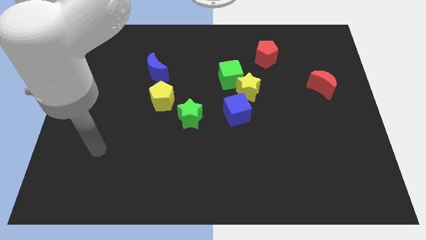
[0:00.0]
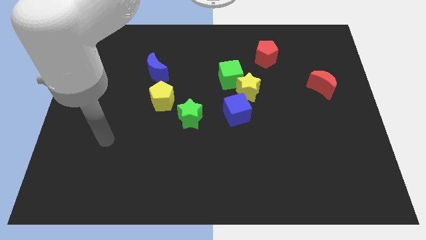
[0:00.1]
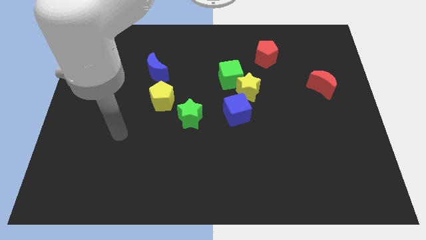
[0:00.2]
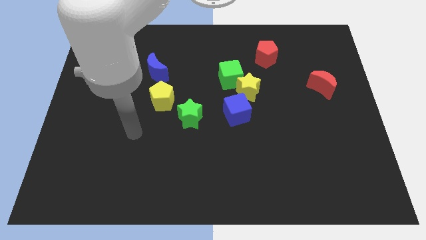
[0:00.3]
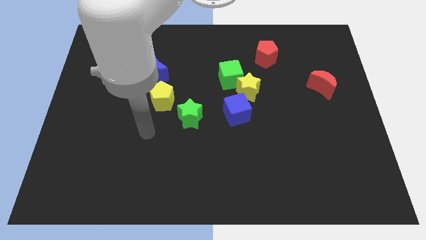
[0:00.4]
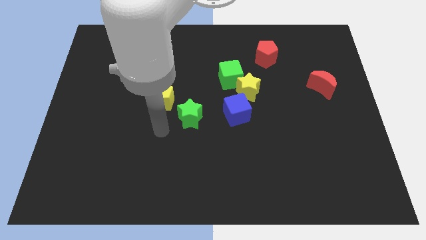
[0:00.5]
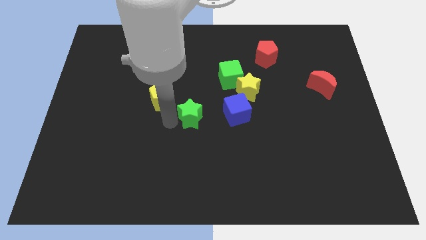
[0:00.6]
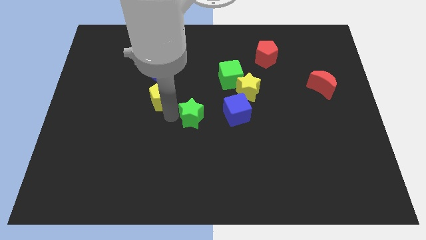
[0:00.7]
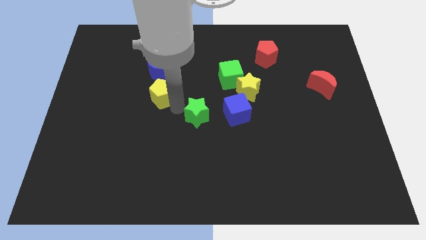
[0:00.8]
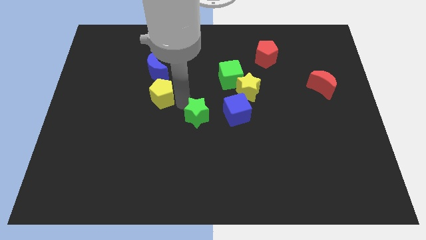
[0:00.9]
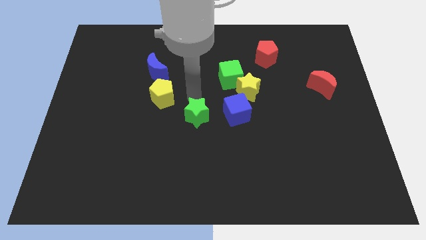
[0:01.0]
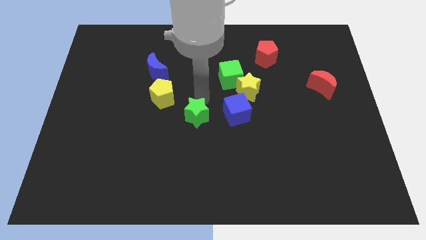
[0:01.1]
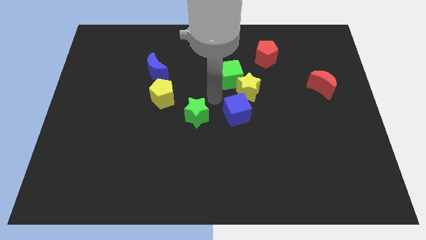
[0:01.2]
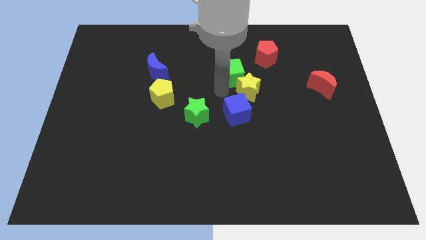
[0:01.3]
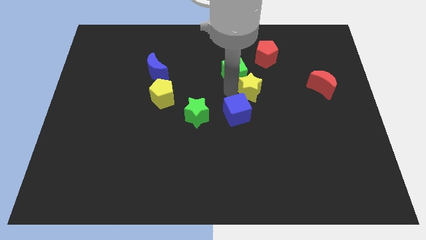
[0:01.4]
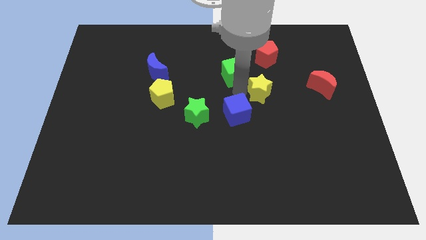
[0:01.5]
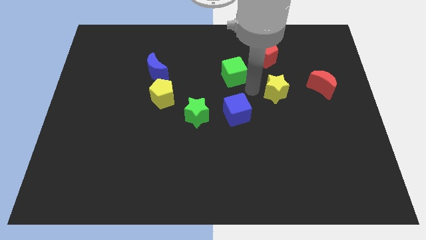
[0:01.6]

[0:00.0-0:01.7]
move the green cube away from the yellow star

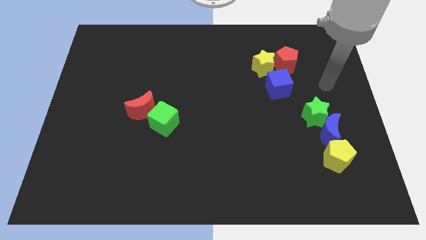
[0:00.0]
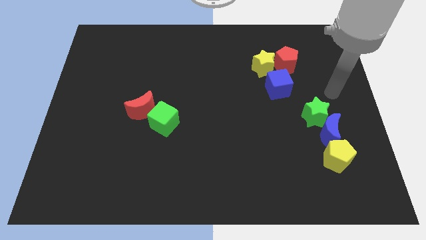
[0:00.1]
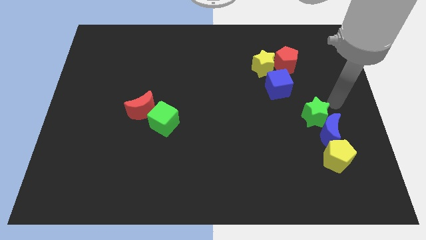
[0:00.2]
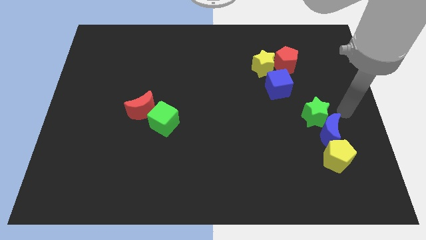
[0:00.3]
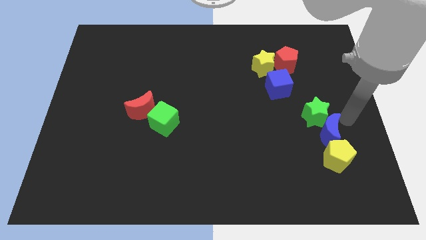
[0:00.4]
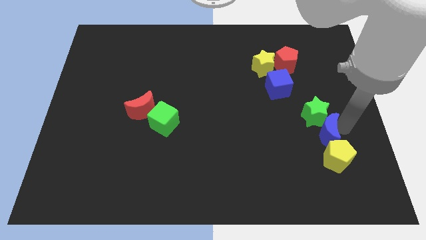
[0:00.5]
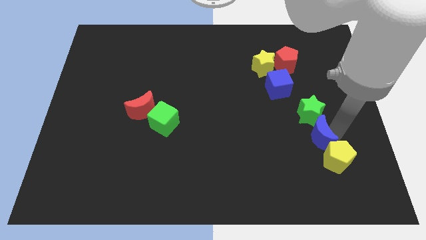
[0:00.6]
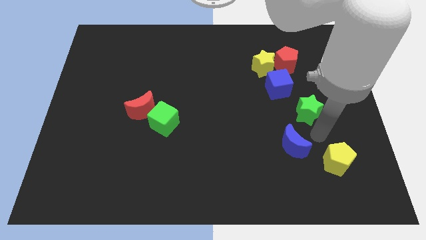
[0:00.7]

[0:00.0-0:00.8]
move the green star away from the blue moon

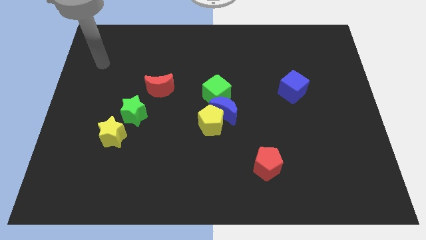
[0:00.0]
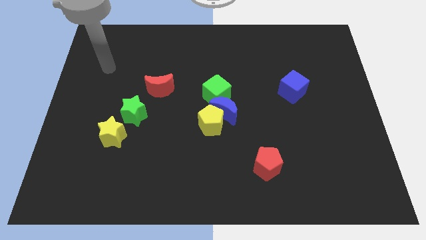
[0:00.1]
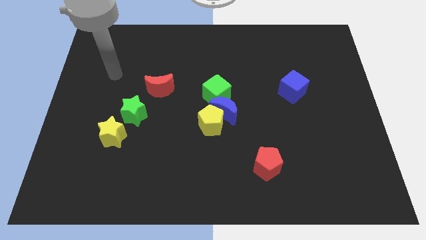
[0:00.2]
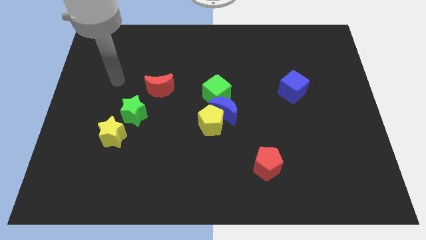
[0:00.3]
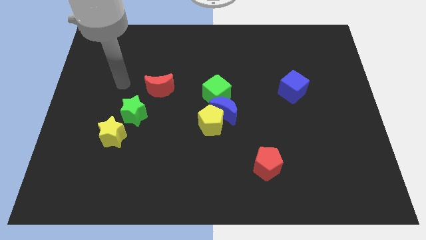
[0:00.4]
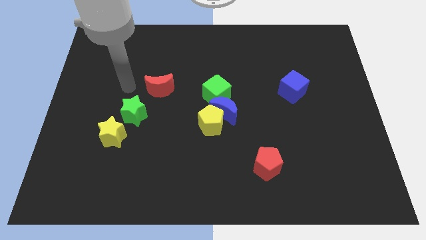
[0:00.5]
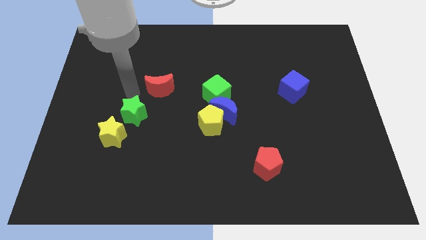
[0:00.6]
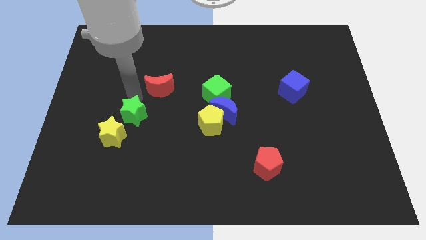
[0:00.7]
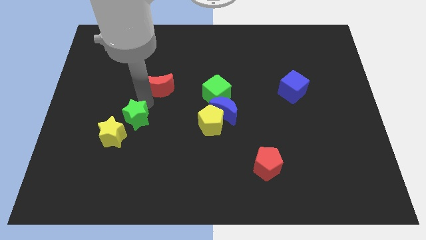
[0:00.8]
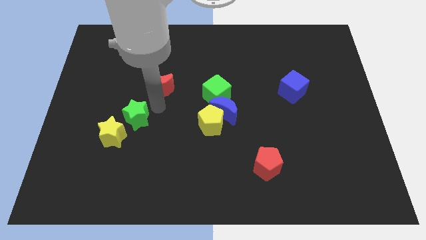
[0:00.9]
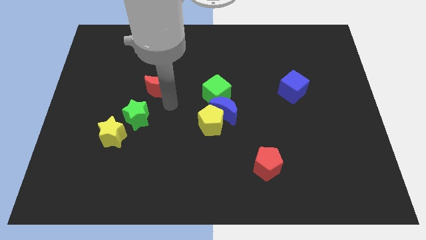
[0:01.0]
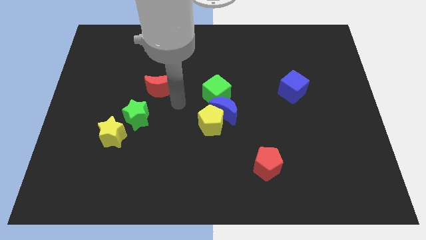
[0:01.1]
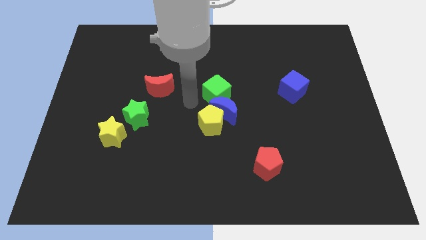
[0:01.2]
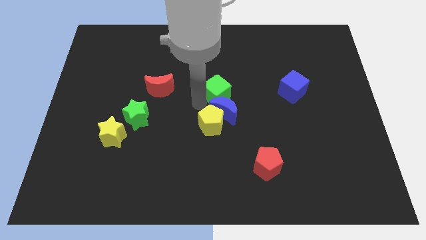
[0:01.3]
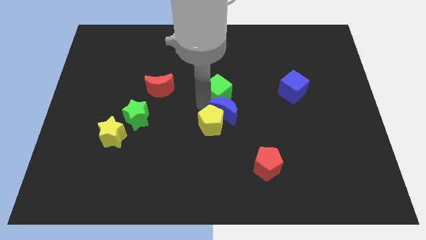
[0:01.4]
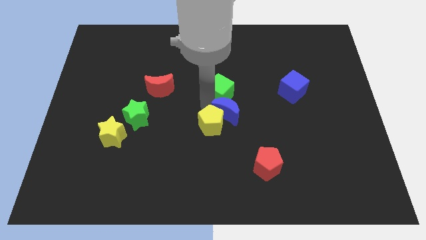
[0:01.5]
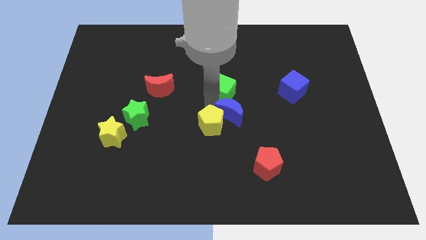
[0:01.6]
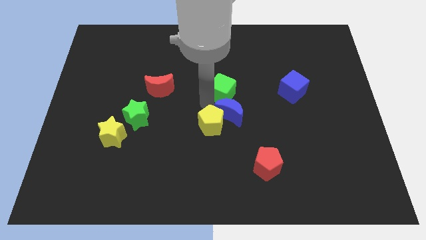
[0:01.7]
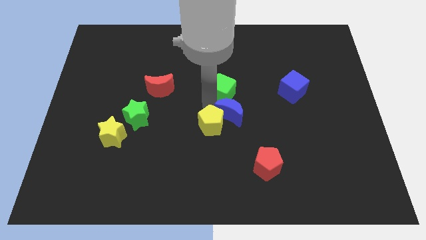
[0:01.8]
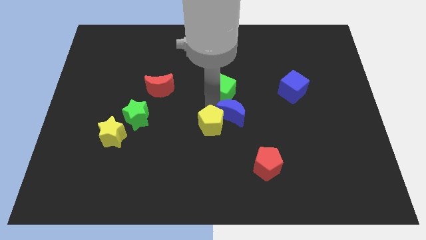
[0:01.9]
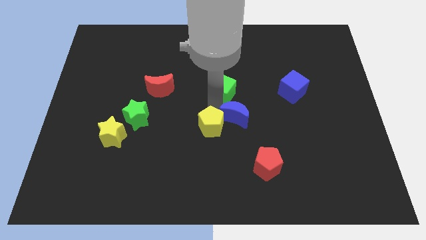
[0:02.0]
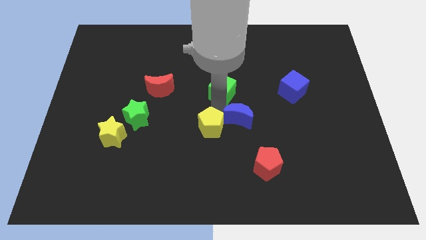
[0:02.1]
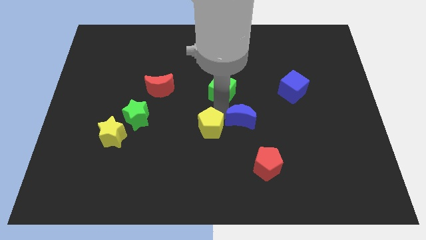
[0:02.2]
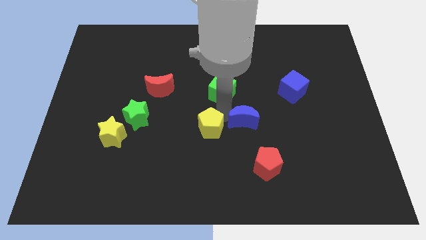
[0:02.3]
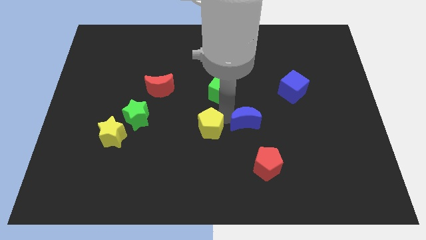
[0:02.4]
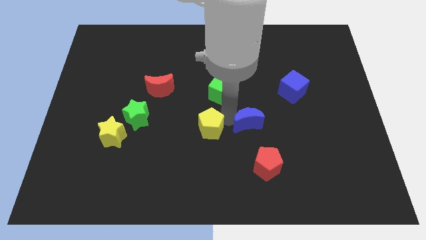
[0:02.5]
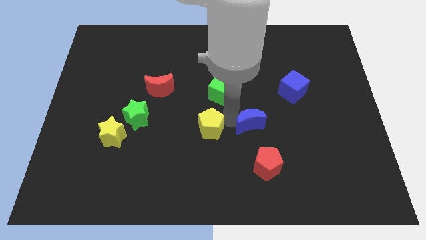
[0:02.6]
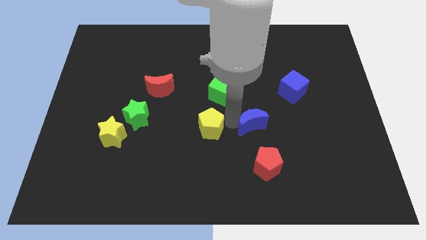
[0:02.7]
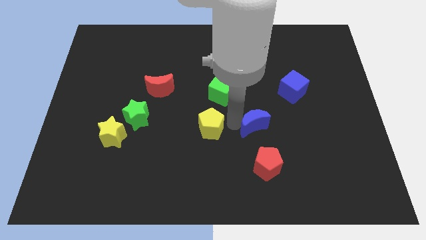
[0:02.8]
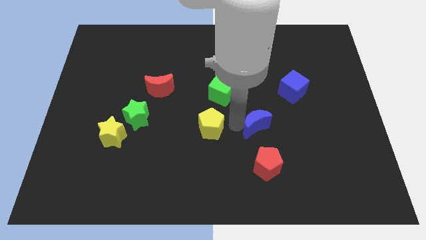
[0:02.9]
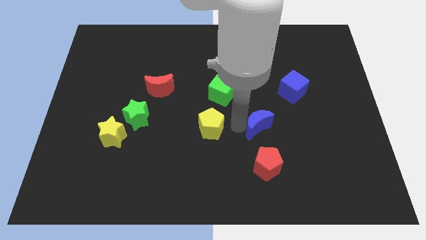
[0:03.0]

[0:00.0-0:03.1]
pull the blue moon apart from the yellow pentagon and green cube

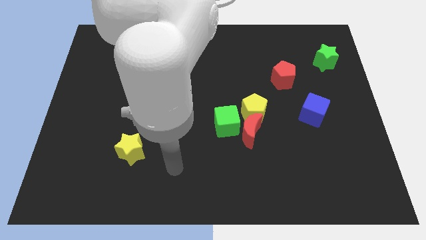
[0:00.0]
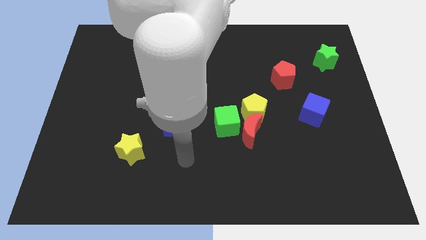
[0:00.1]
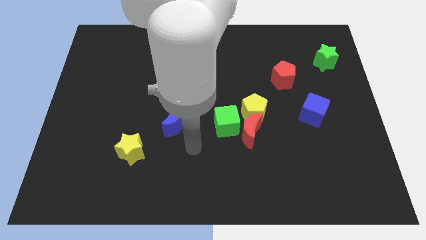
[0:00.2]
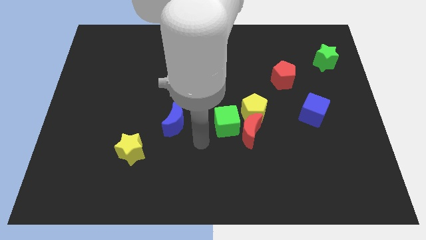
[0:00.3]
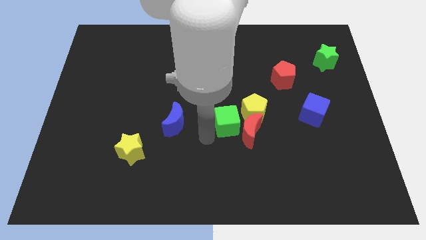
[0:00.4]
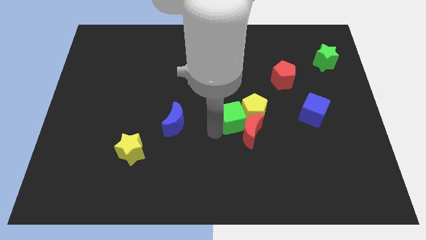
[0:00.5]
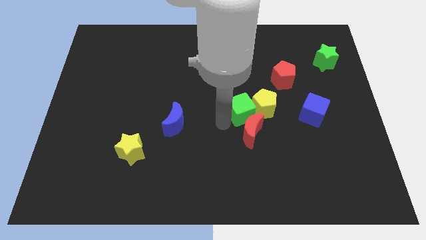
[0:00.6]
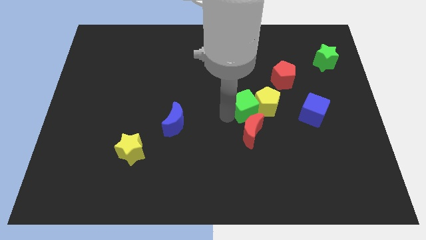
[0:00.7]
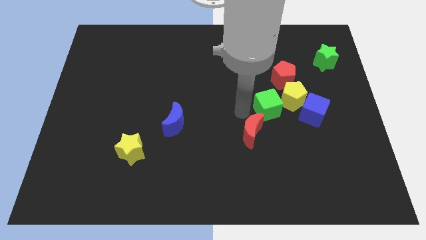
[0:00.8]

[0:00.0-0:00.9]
pull the red moon apart from the yellow pentagon and green cube

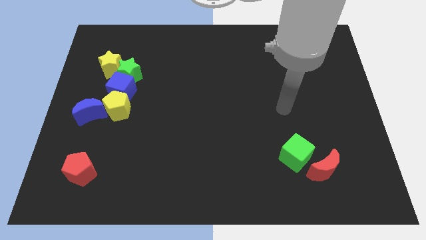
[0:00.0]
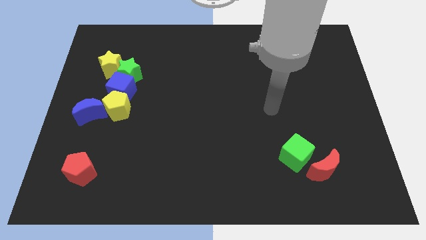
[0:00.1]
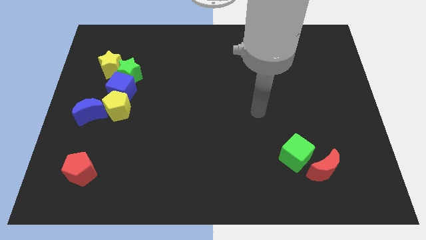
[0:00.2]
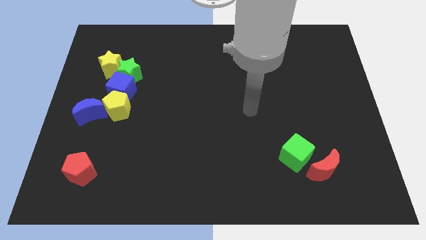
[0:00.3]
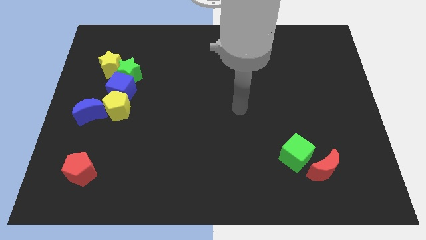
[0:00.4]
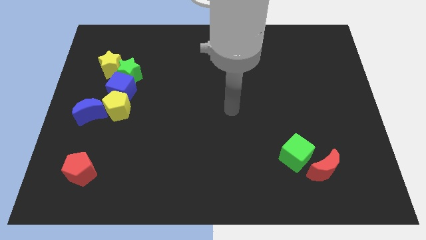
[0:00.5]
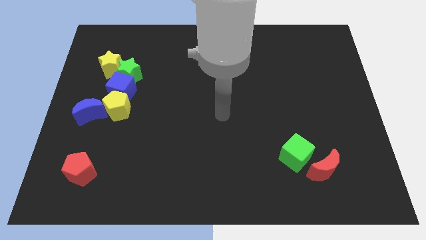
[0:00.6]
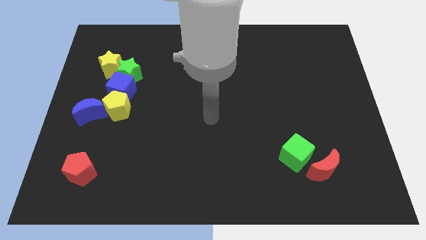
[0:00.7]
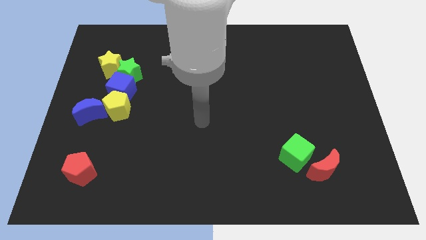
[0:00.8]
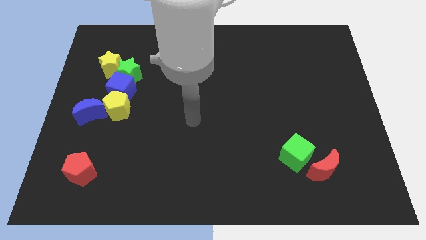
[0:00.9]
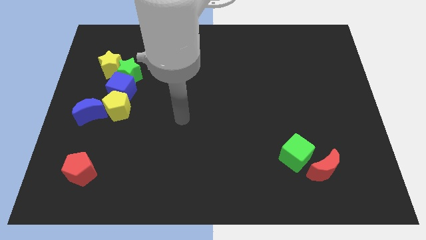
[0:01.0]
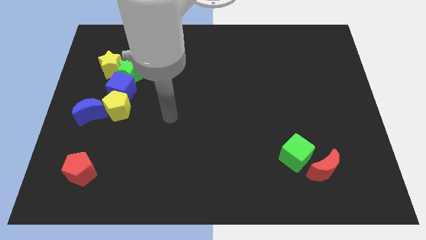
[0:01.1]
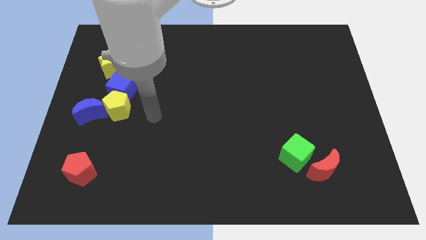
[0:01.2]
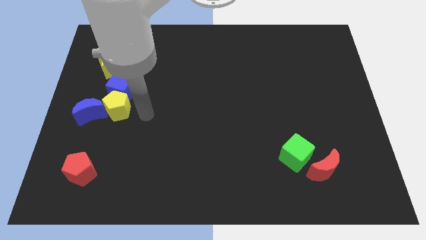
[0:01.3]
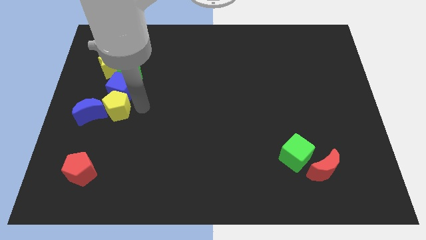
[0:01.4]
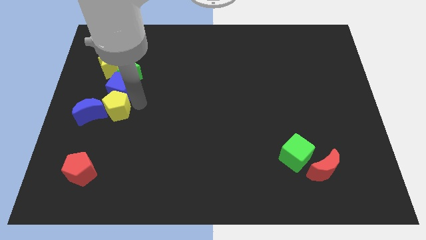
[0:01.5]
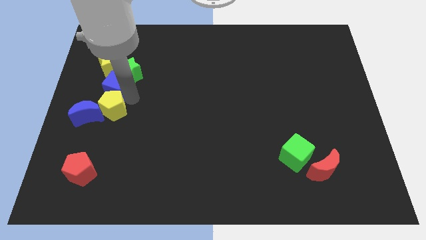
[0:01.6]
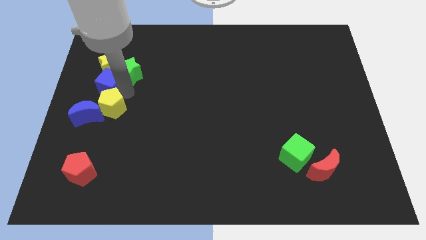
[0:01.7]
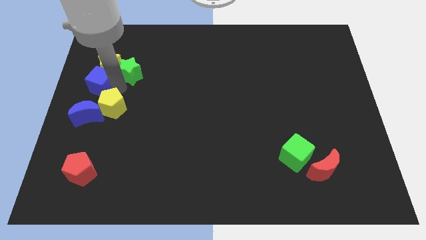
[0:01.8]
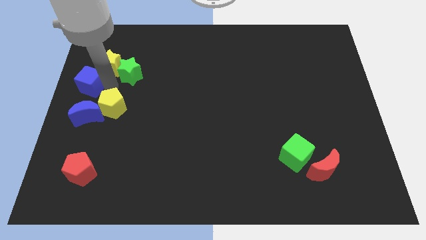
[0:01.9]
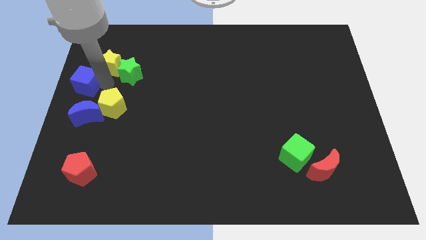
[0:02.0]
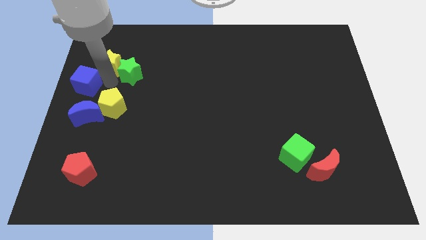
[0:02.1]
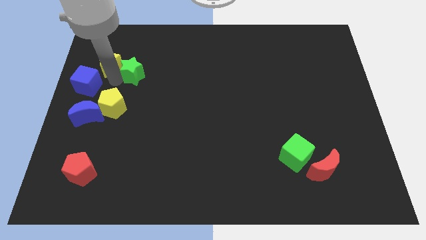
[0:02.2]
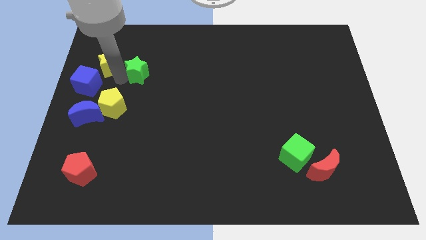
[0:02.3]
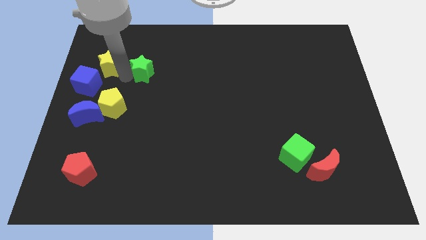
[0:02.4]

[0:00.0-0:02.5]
move the green star away from the blue cube and yellow star

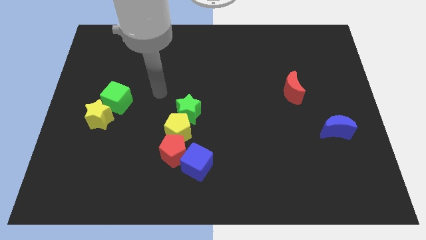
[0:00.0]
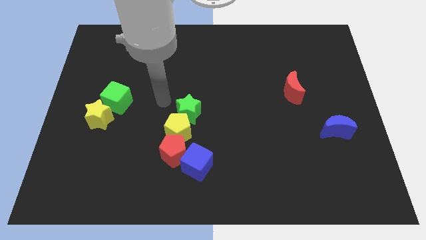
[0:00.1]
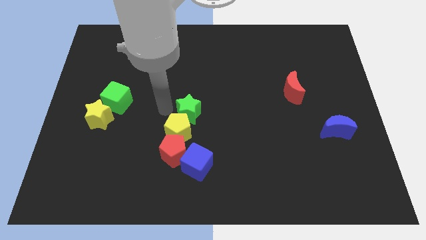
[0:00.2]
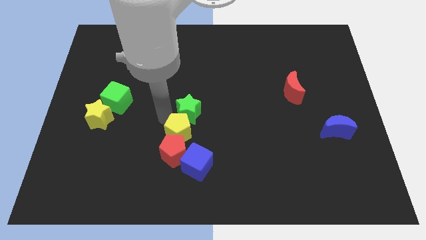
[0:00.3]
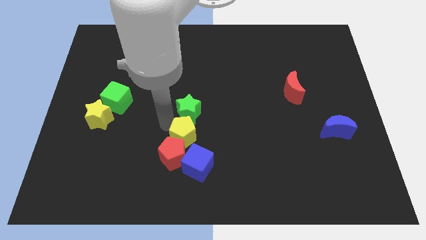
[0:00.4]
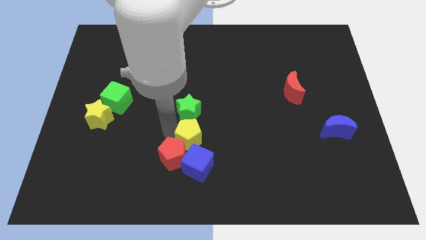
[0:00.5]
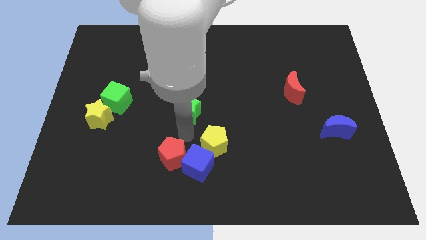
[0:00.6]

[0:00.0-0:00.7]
separate the green star from the yellow pentagon
